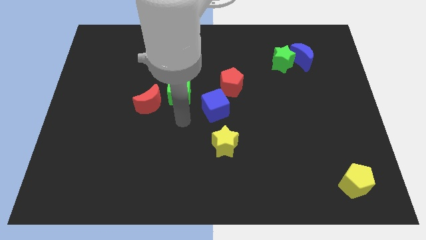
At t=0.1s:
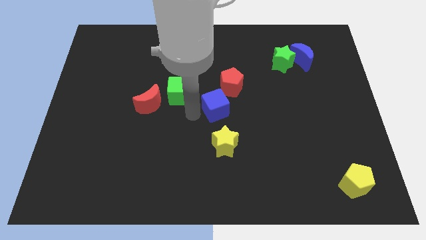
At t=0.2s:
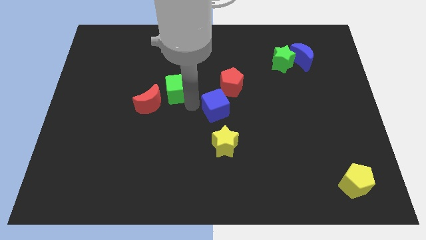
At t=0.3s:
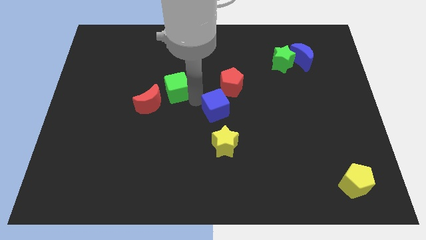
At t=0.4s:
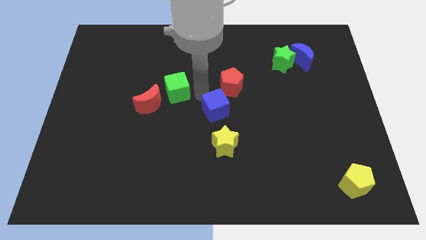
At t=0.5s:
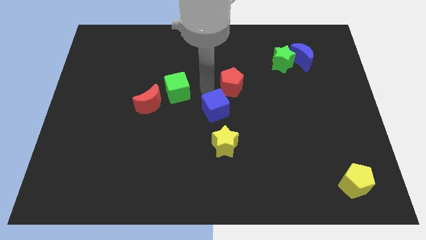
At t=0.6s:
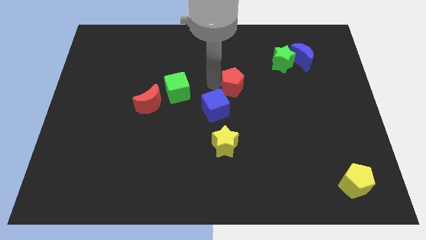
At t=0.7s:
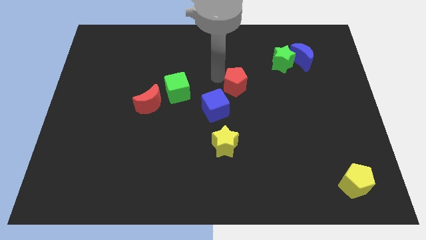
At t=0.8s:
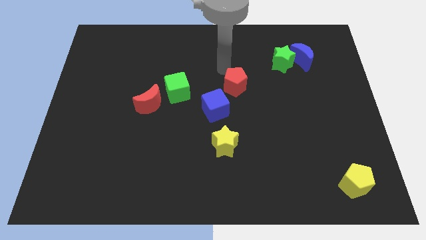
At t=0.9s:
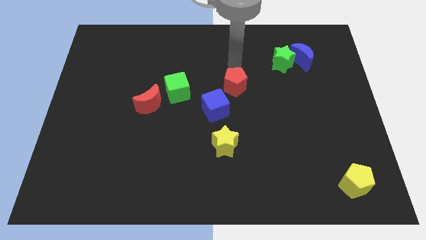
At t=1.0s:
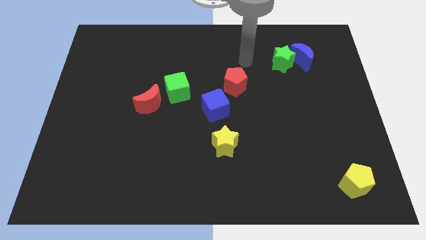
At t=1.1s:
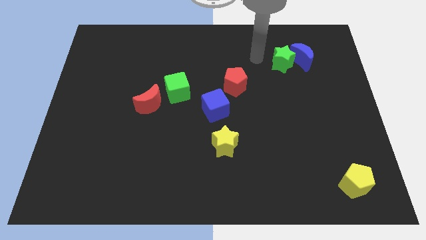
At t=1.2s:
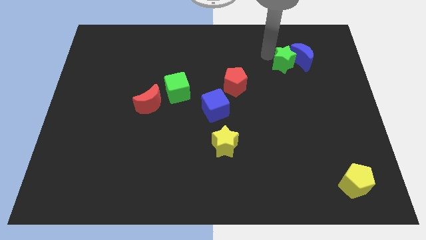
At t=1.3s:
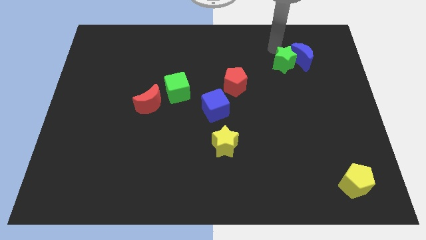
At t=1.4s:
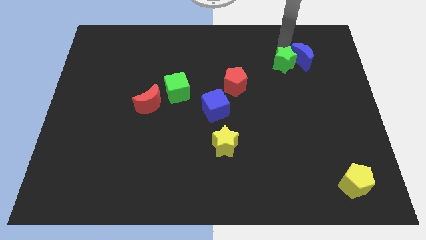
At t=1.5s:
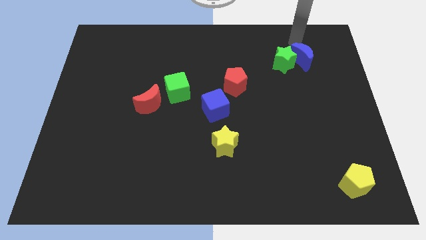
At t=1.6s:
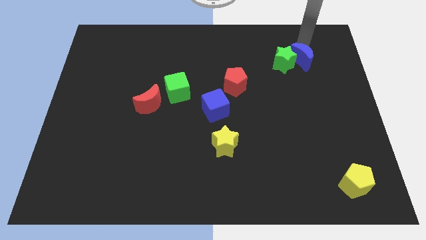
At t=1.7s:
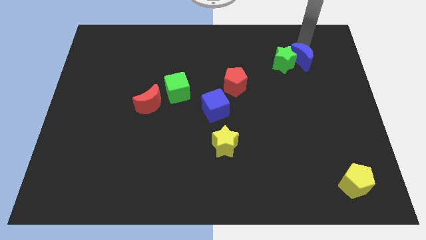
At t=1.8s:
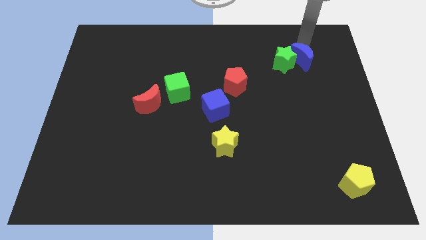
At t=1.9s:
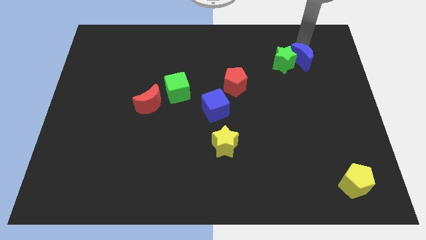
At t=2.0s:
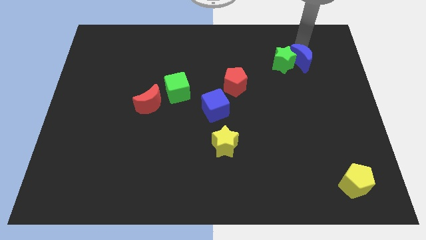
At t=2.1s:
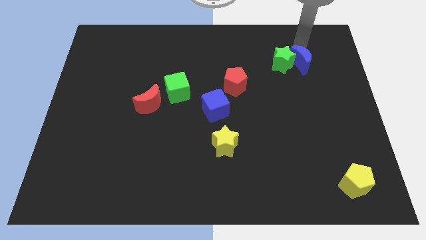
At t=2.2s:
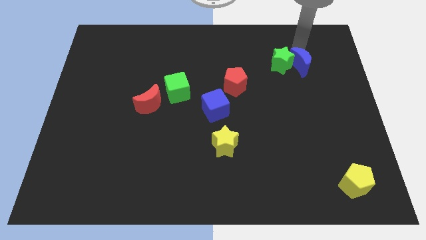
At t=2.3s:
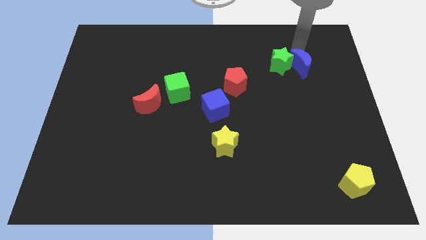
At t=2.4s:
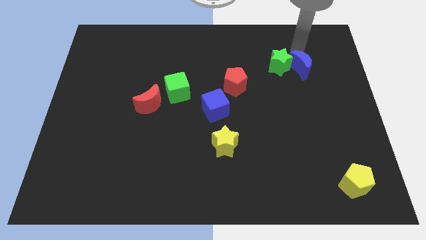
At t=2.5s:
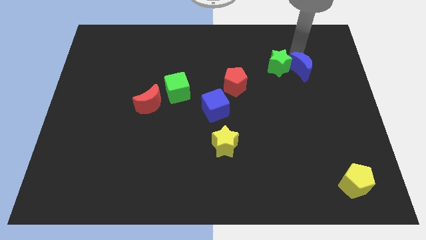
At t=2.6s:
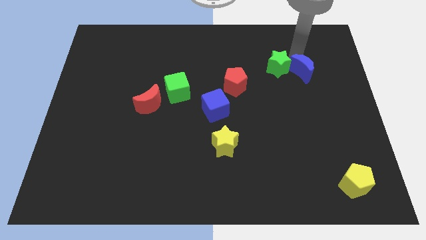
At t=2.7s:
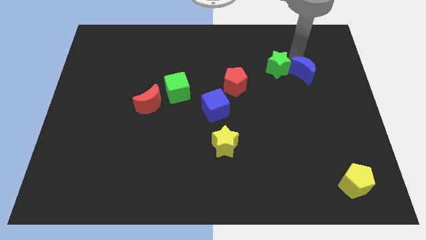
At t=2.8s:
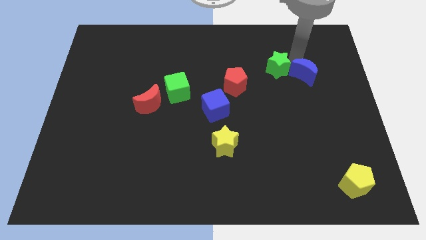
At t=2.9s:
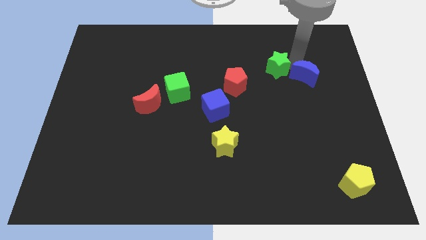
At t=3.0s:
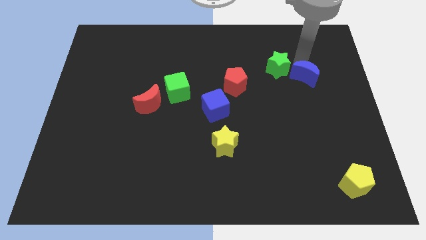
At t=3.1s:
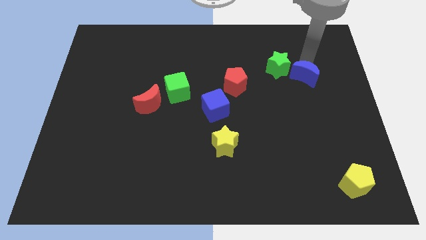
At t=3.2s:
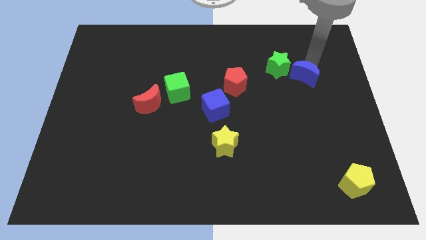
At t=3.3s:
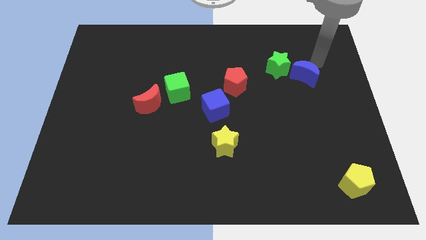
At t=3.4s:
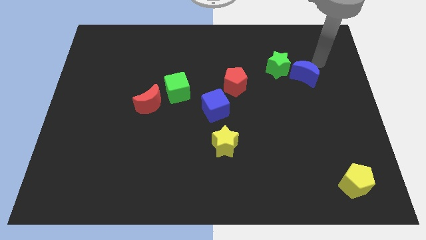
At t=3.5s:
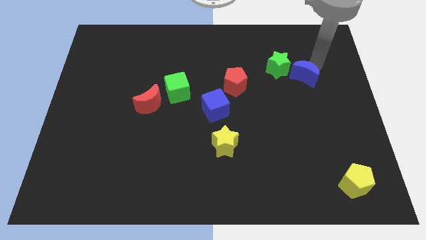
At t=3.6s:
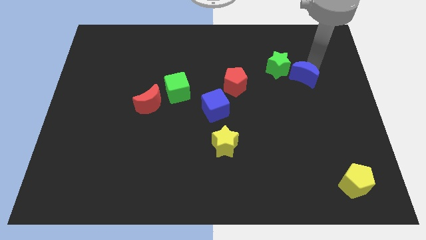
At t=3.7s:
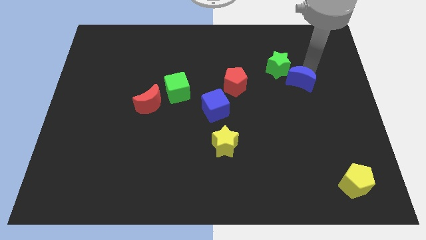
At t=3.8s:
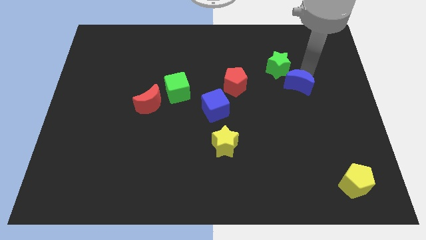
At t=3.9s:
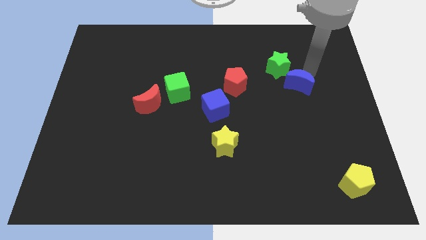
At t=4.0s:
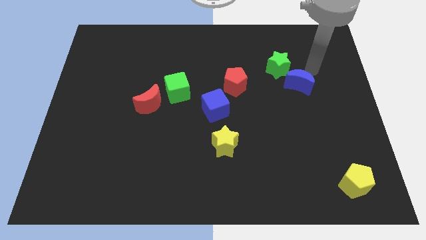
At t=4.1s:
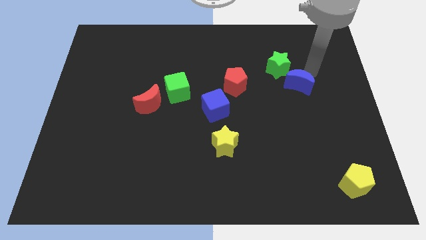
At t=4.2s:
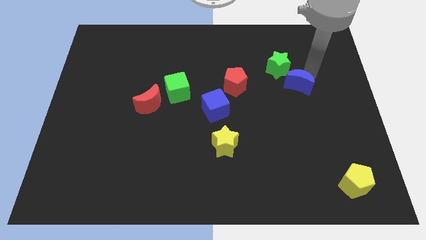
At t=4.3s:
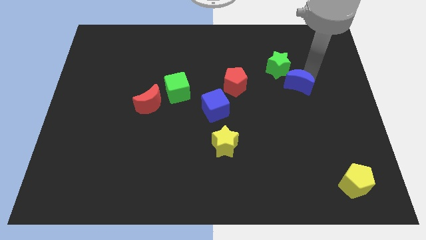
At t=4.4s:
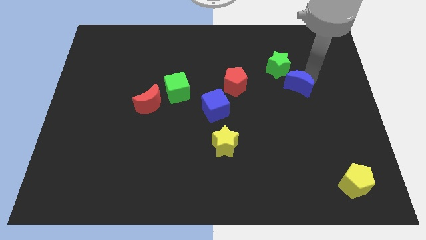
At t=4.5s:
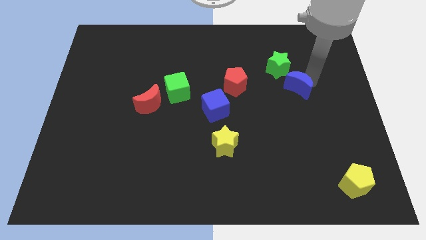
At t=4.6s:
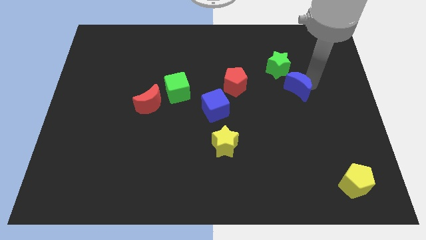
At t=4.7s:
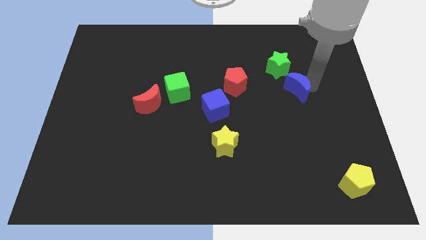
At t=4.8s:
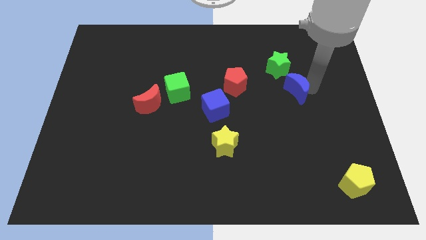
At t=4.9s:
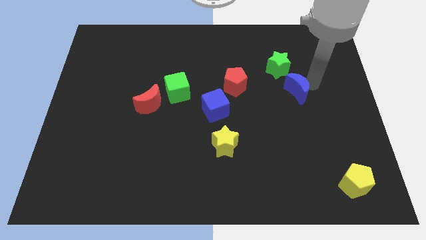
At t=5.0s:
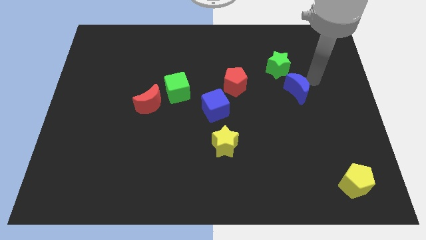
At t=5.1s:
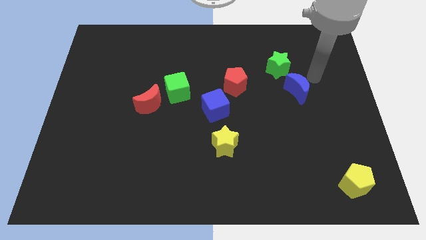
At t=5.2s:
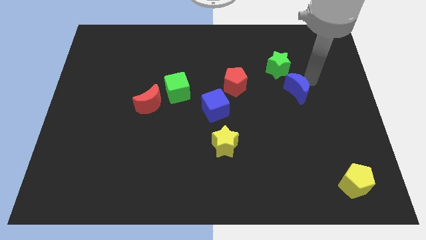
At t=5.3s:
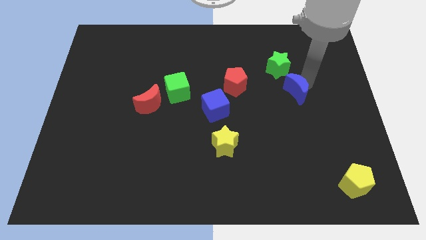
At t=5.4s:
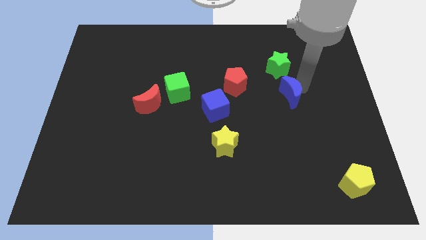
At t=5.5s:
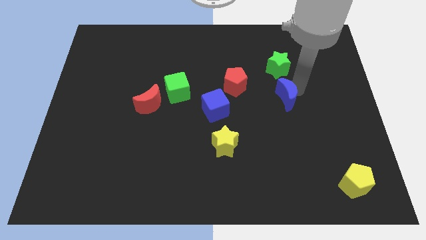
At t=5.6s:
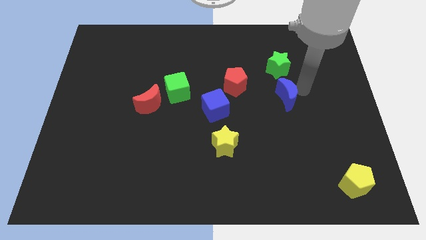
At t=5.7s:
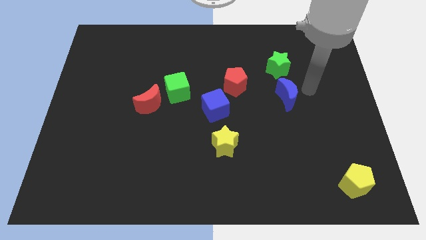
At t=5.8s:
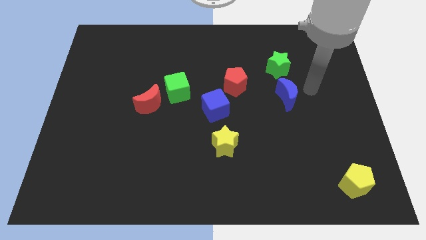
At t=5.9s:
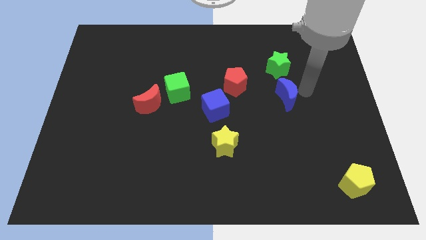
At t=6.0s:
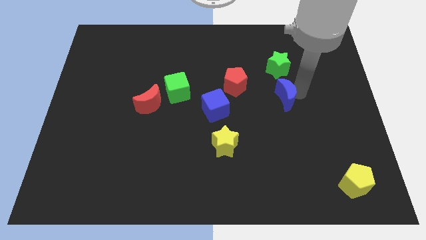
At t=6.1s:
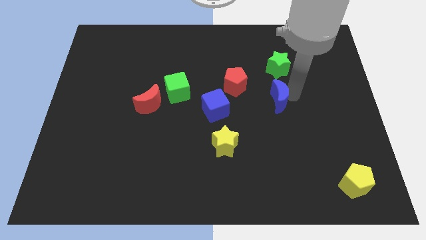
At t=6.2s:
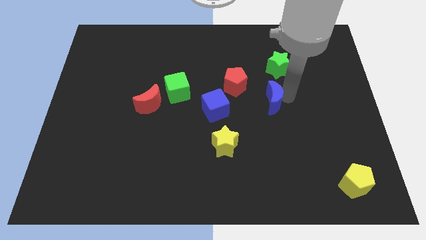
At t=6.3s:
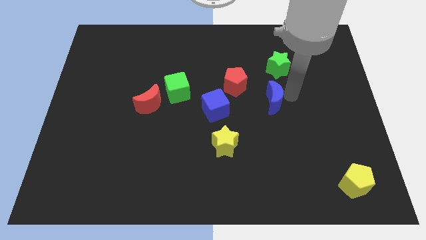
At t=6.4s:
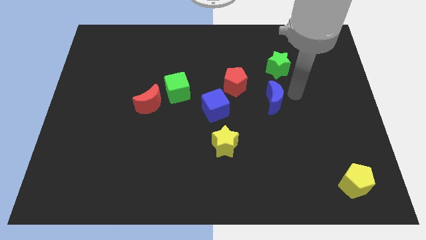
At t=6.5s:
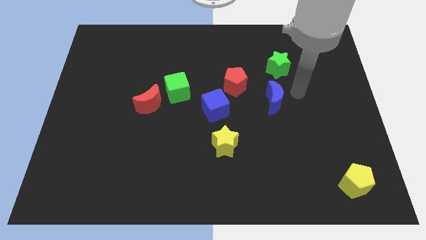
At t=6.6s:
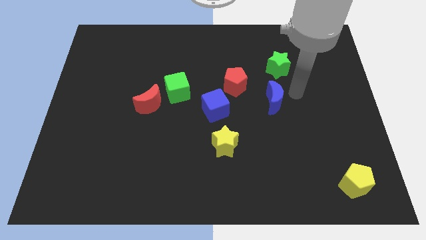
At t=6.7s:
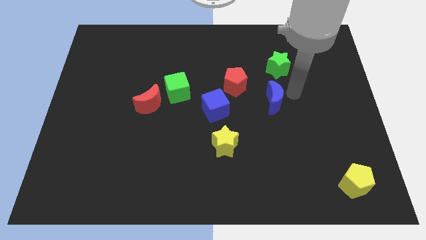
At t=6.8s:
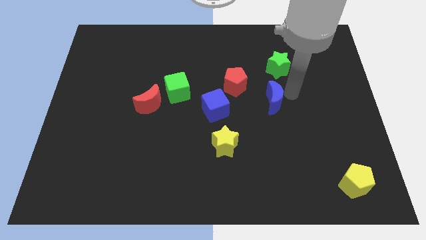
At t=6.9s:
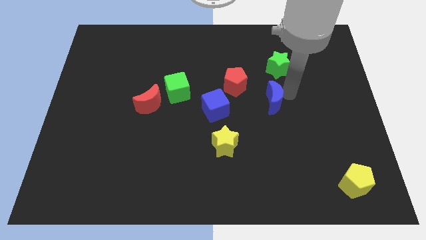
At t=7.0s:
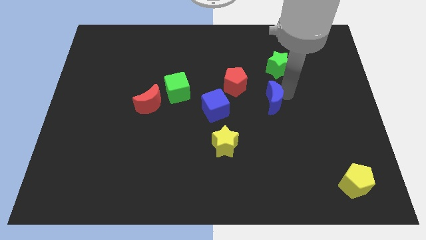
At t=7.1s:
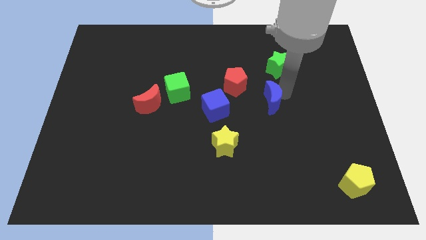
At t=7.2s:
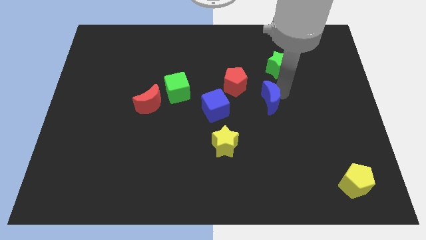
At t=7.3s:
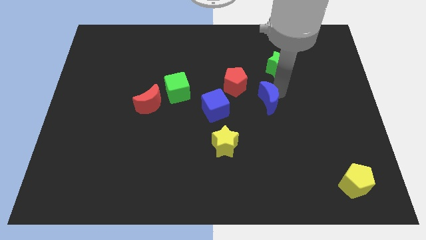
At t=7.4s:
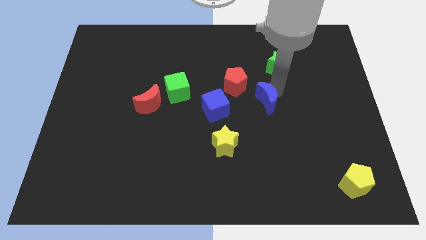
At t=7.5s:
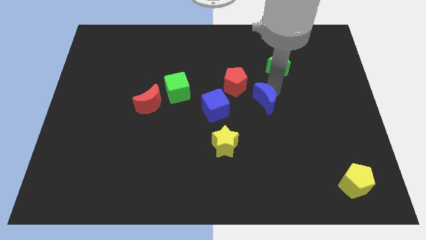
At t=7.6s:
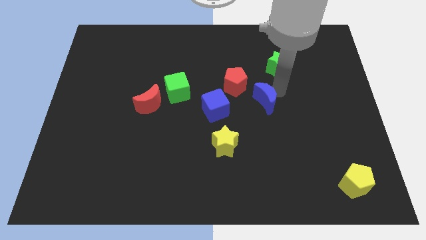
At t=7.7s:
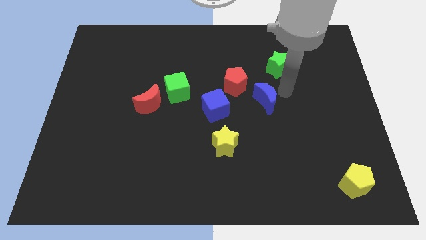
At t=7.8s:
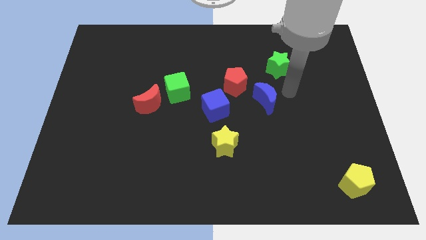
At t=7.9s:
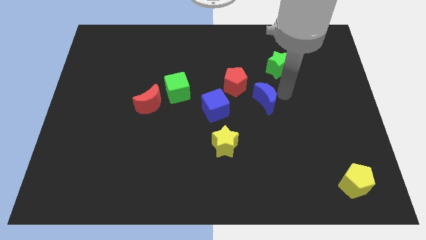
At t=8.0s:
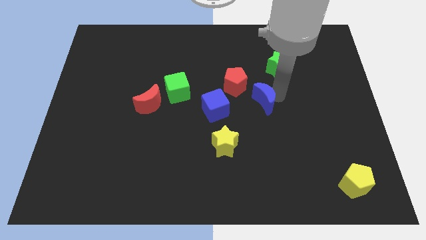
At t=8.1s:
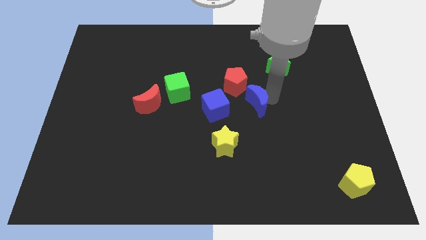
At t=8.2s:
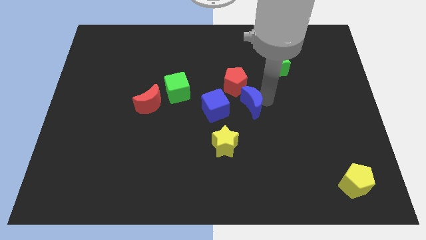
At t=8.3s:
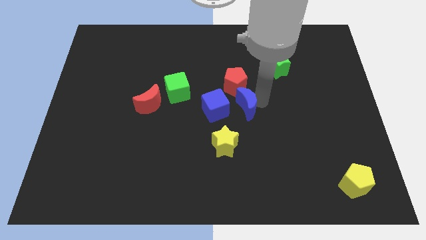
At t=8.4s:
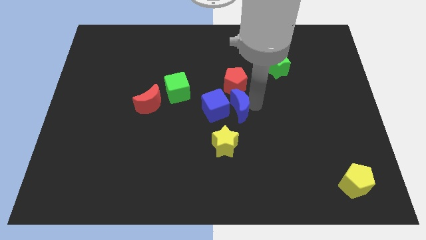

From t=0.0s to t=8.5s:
push the blue moon close to the blue cube
